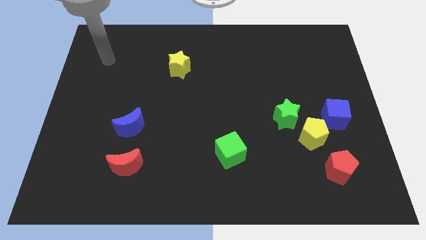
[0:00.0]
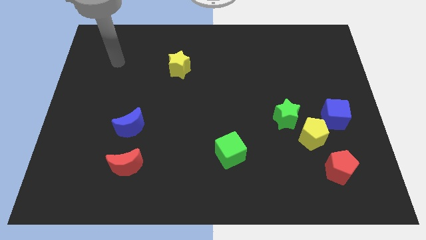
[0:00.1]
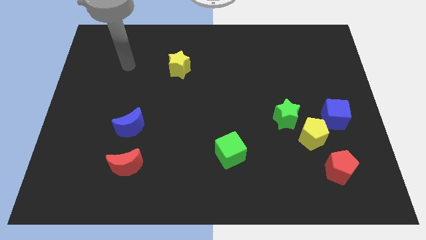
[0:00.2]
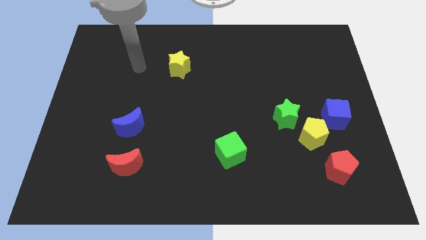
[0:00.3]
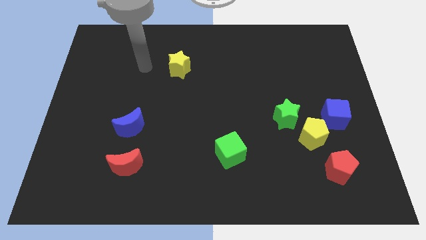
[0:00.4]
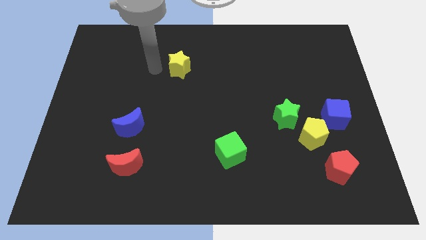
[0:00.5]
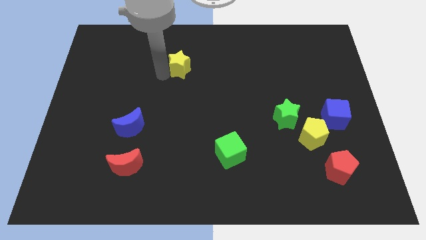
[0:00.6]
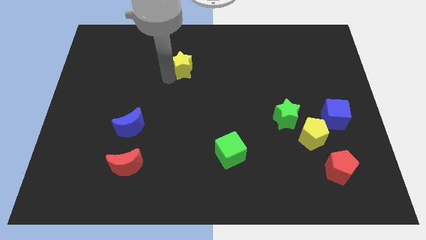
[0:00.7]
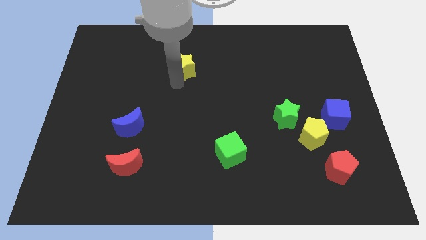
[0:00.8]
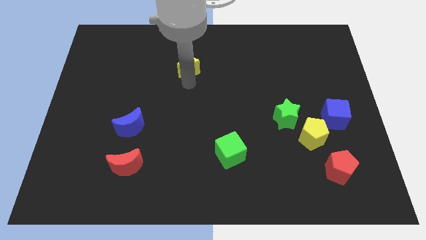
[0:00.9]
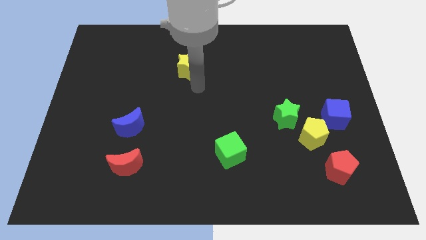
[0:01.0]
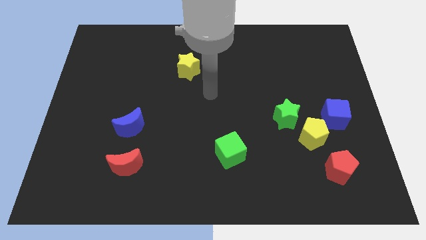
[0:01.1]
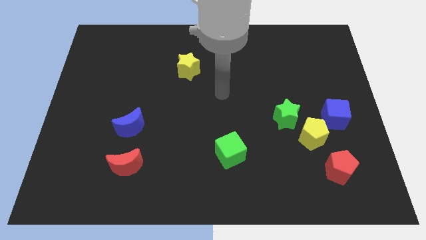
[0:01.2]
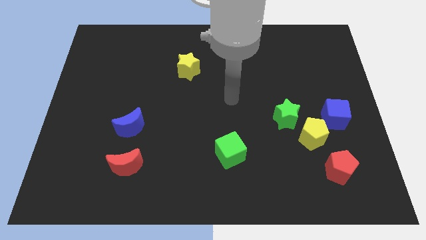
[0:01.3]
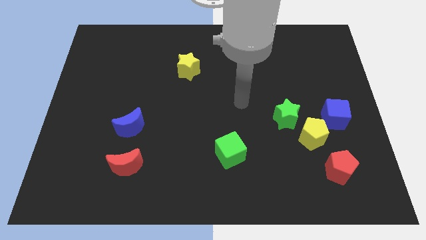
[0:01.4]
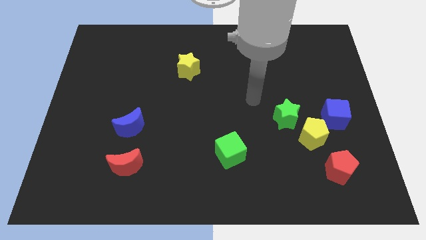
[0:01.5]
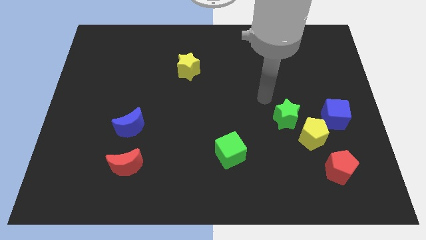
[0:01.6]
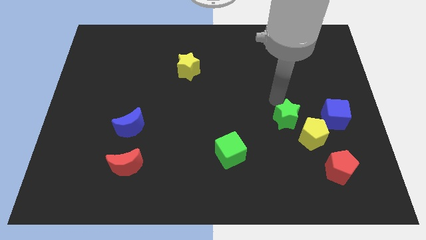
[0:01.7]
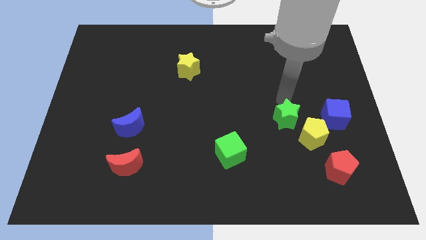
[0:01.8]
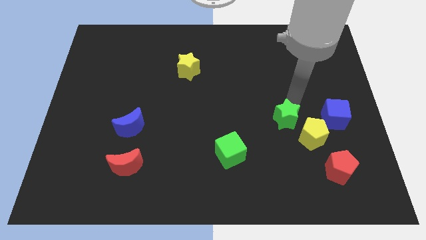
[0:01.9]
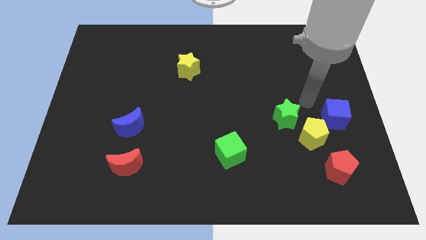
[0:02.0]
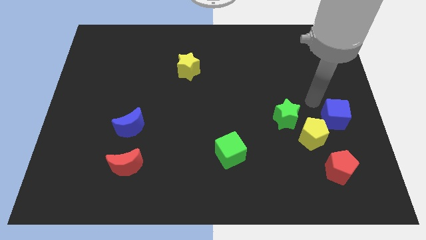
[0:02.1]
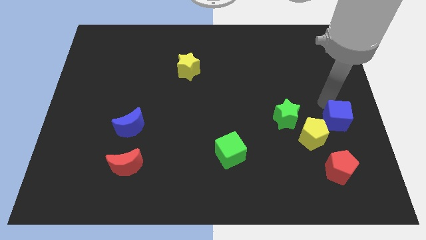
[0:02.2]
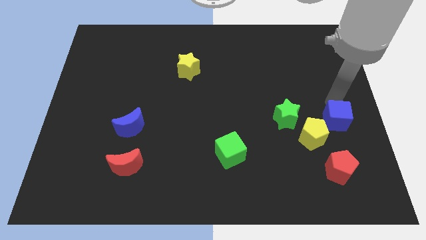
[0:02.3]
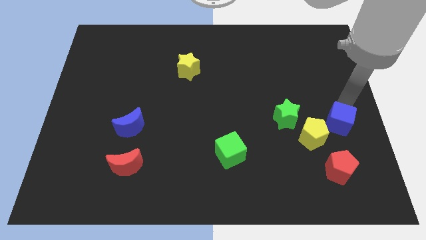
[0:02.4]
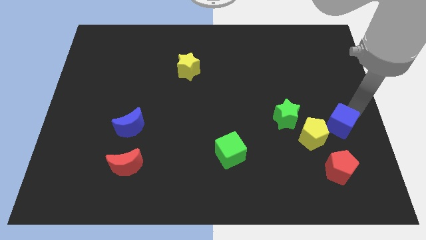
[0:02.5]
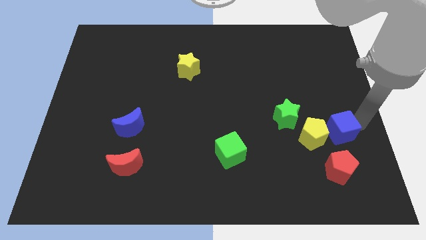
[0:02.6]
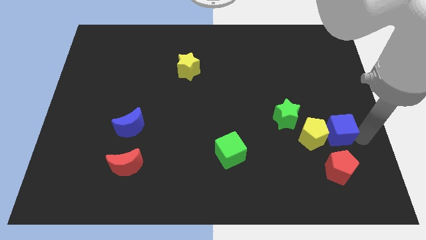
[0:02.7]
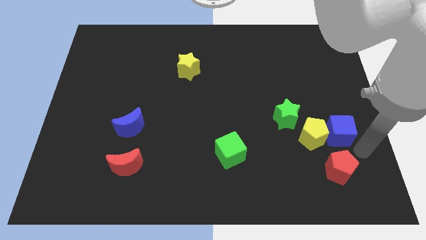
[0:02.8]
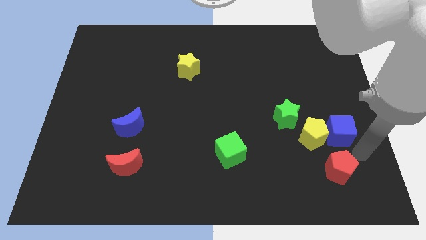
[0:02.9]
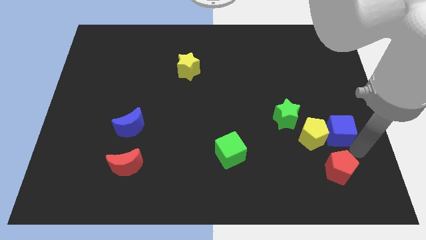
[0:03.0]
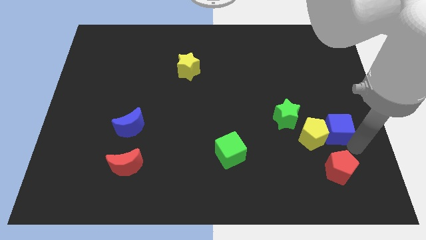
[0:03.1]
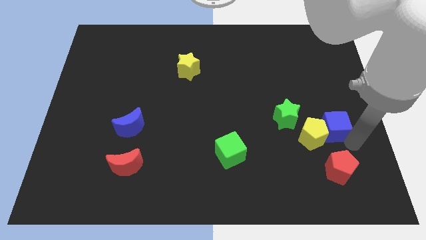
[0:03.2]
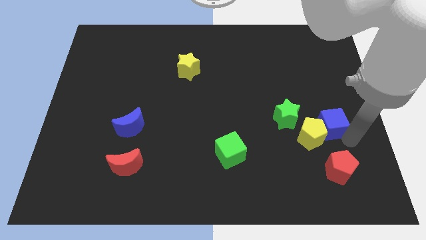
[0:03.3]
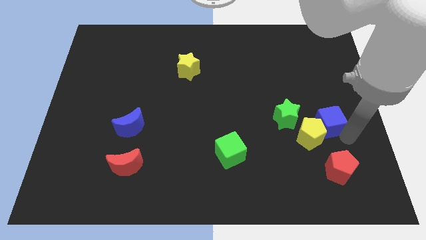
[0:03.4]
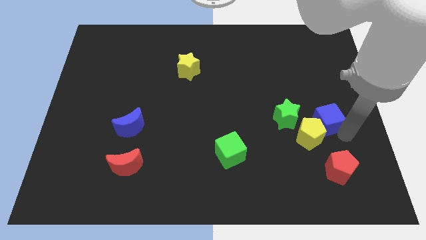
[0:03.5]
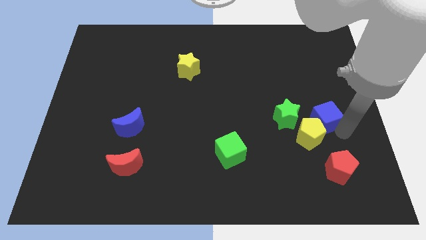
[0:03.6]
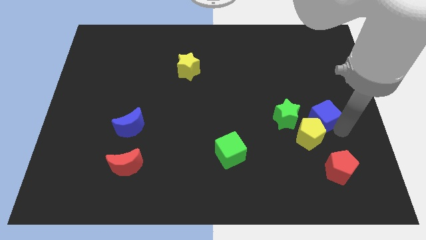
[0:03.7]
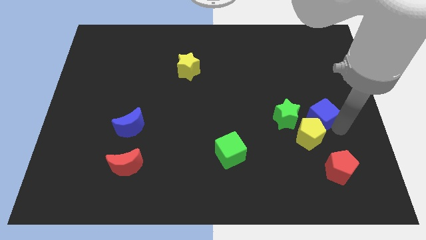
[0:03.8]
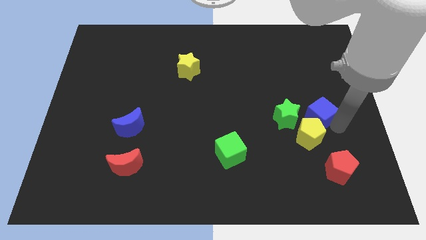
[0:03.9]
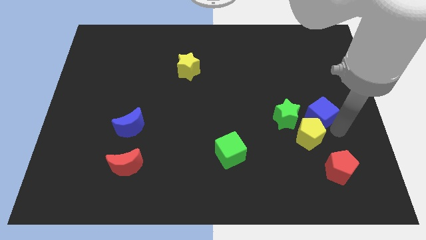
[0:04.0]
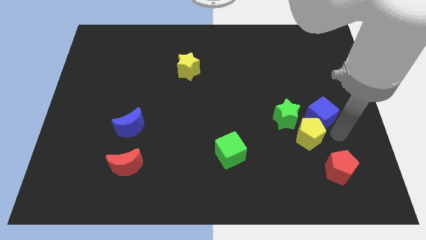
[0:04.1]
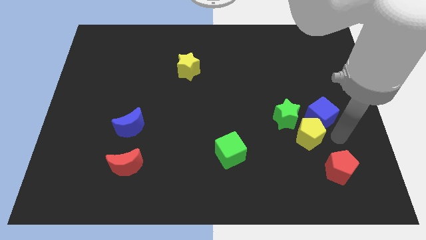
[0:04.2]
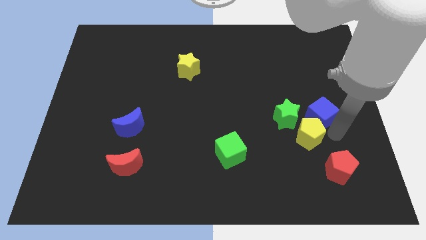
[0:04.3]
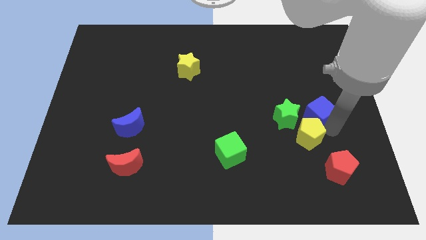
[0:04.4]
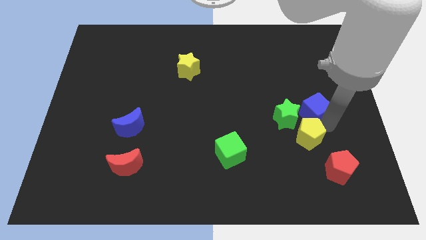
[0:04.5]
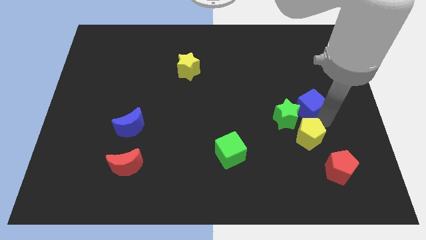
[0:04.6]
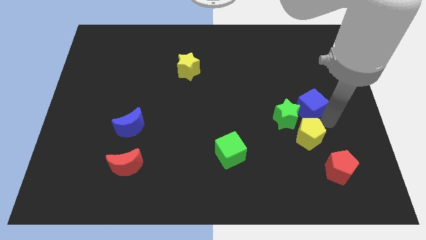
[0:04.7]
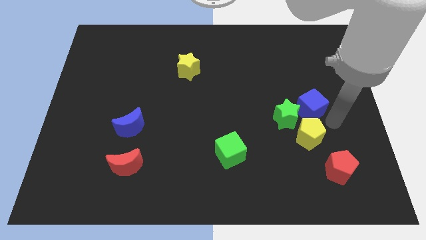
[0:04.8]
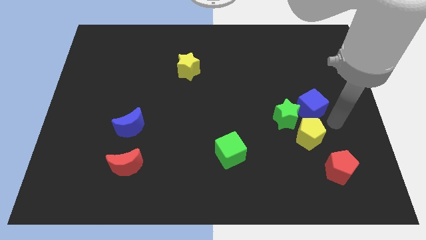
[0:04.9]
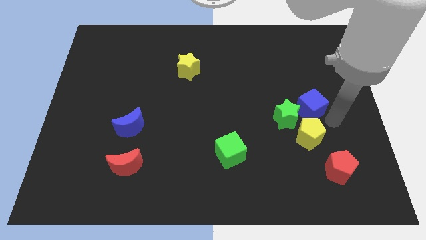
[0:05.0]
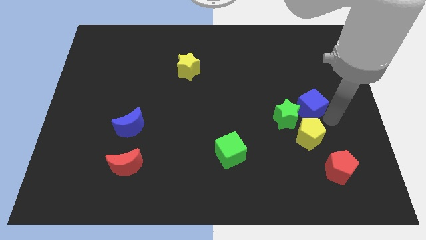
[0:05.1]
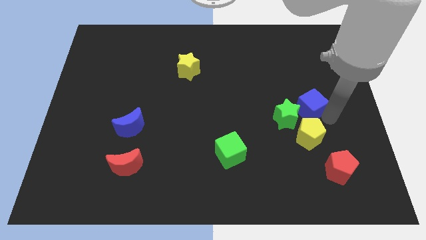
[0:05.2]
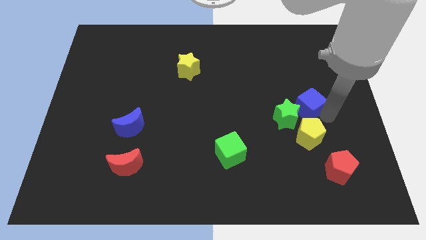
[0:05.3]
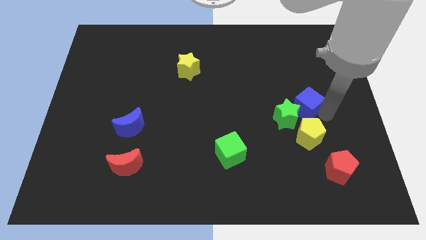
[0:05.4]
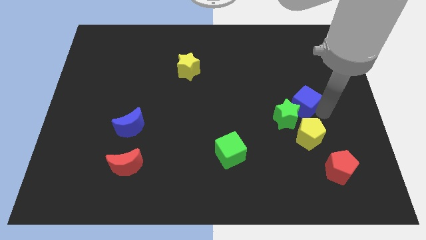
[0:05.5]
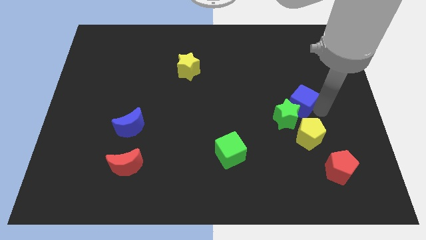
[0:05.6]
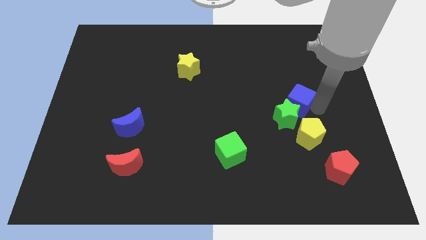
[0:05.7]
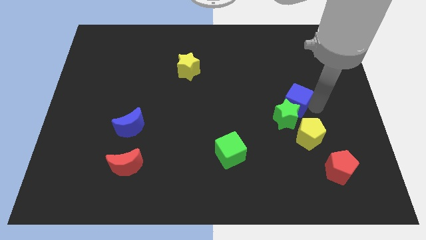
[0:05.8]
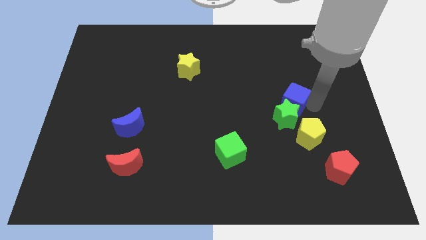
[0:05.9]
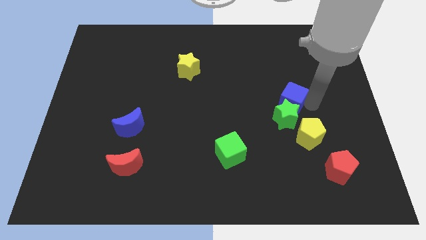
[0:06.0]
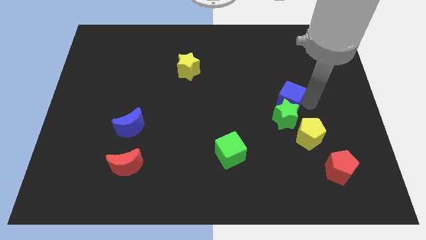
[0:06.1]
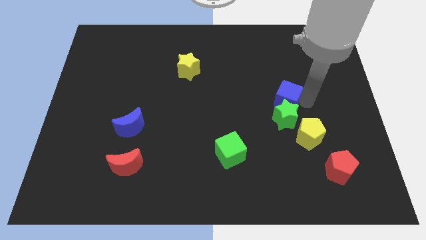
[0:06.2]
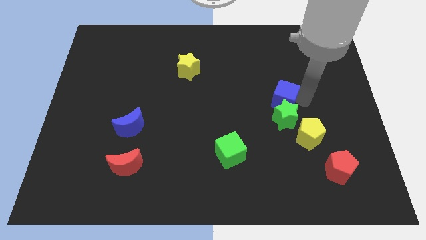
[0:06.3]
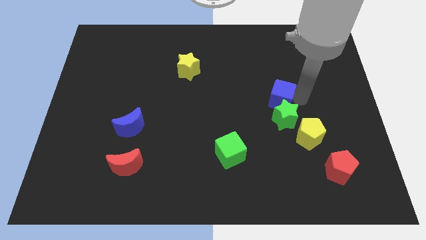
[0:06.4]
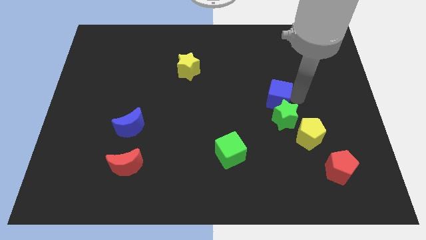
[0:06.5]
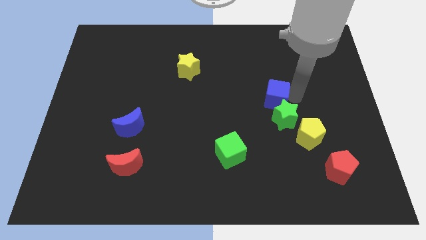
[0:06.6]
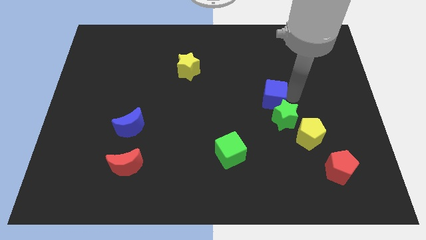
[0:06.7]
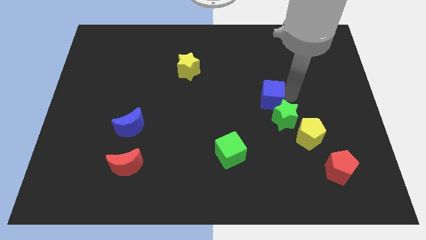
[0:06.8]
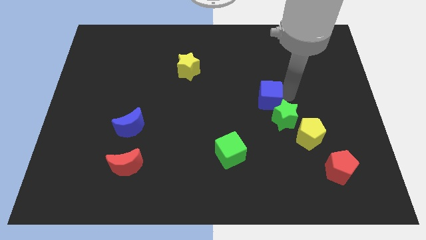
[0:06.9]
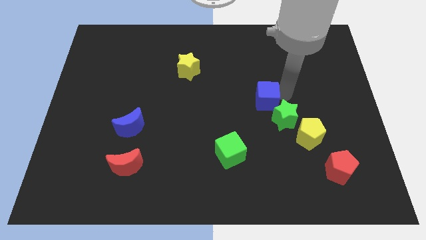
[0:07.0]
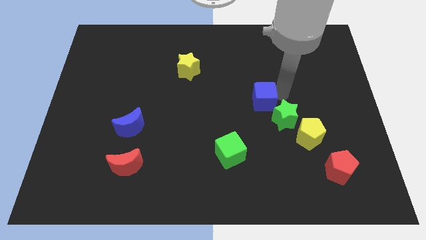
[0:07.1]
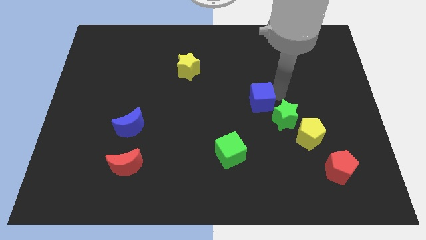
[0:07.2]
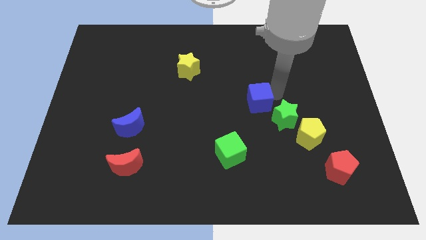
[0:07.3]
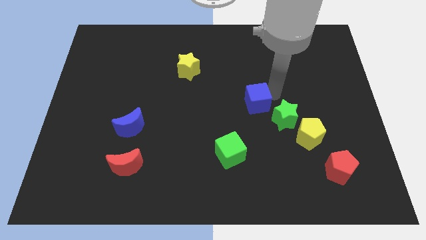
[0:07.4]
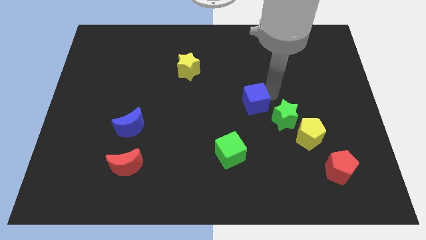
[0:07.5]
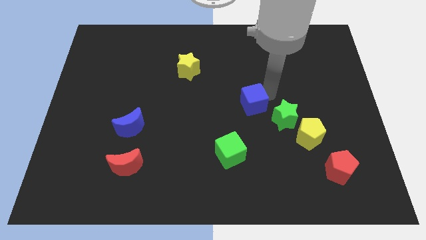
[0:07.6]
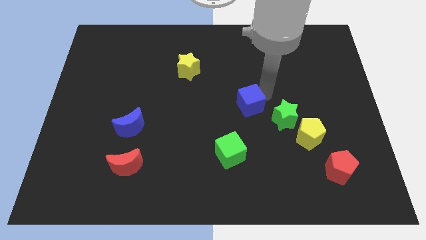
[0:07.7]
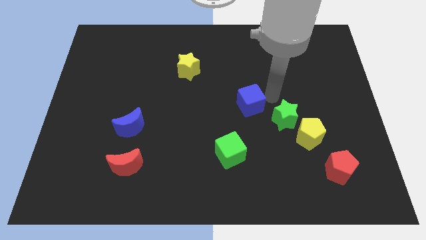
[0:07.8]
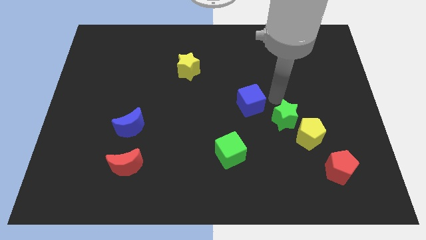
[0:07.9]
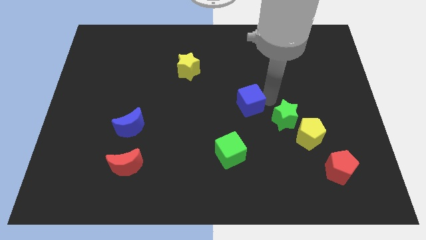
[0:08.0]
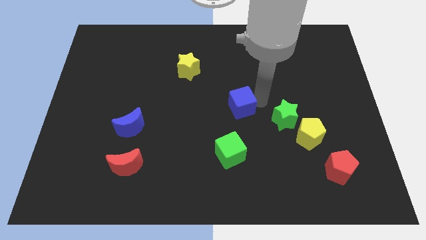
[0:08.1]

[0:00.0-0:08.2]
move the blue cube to the left
